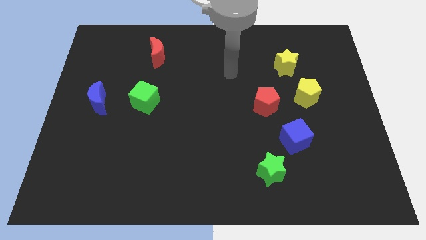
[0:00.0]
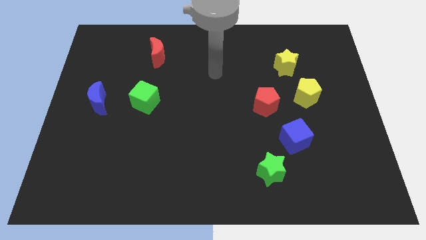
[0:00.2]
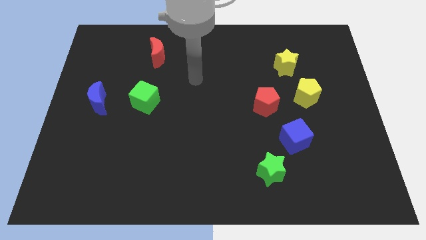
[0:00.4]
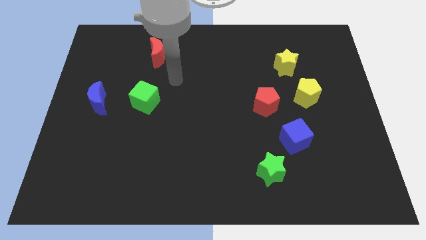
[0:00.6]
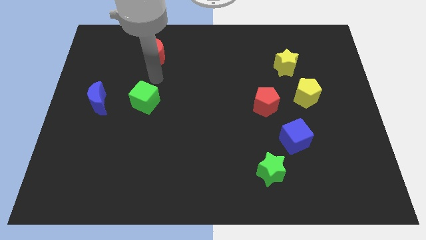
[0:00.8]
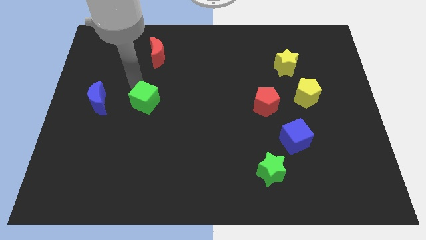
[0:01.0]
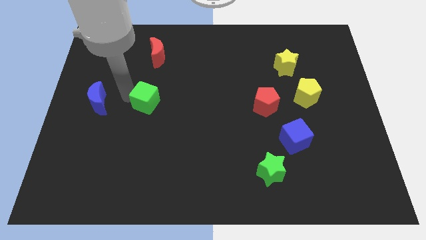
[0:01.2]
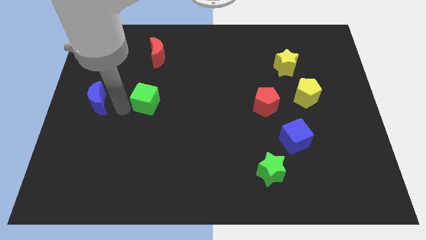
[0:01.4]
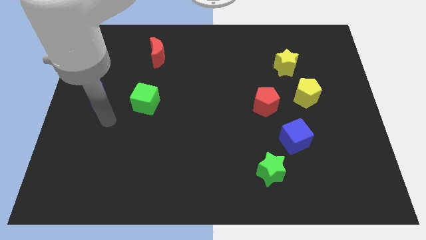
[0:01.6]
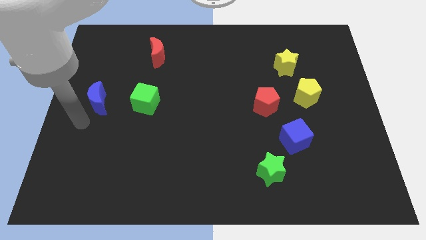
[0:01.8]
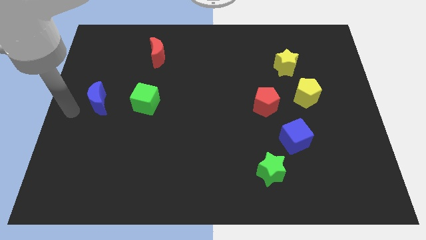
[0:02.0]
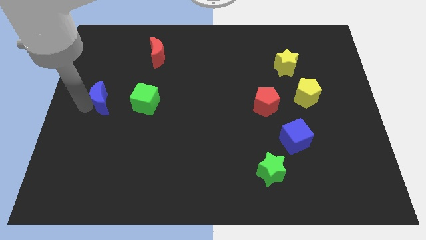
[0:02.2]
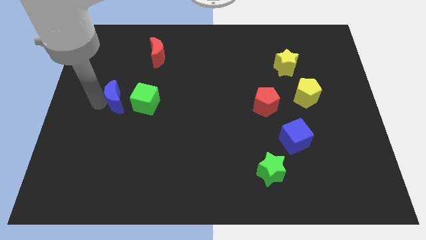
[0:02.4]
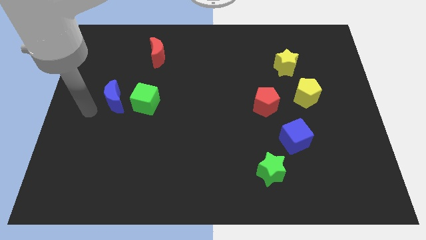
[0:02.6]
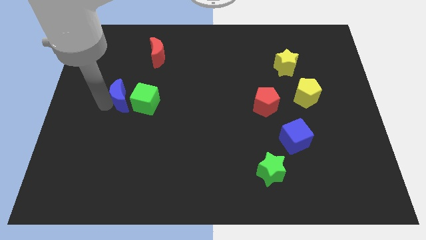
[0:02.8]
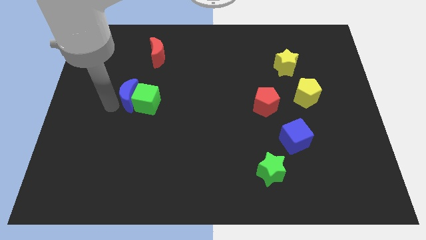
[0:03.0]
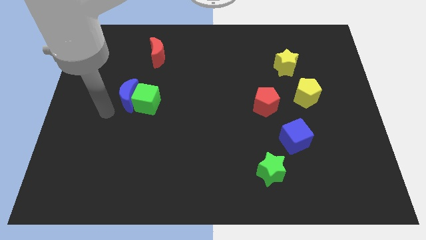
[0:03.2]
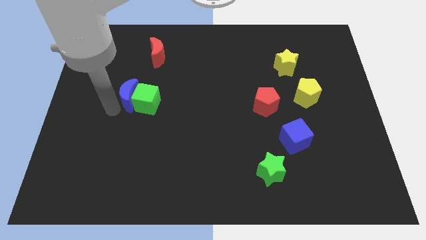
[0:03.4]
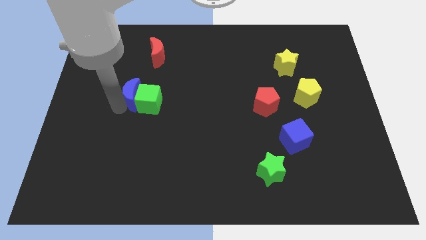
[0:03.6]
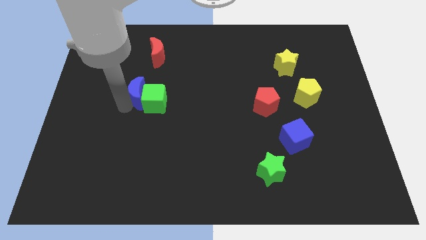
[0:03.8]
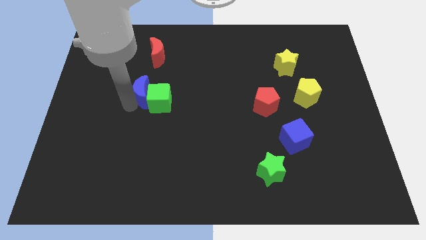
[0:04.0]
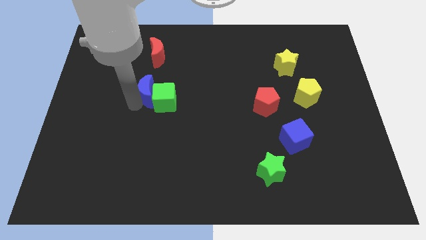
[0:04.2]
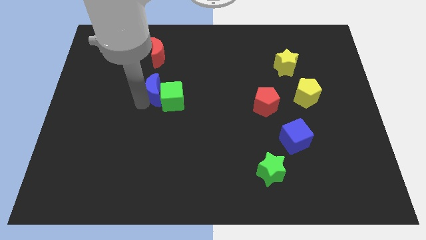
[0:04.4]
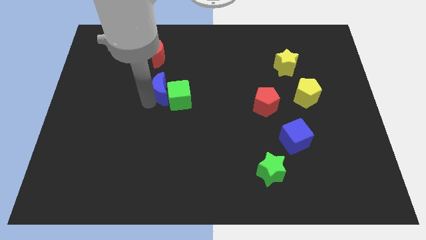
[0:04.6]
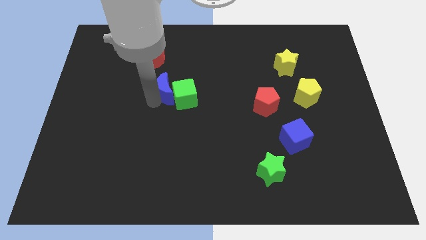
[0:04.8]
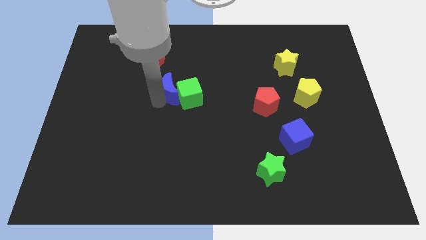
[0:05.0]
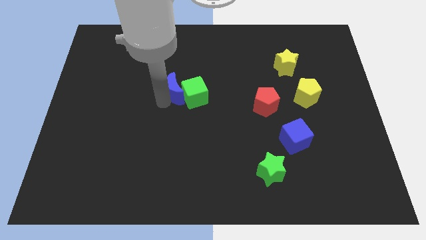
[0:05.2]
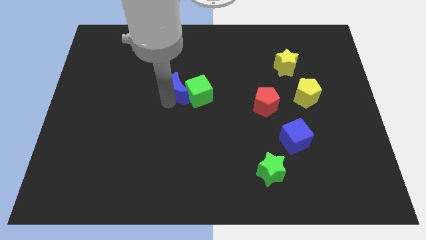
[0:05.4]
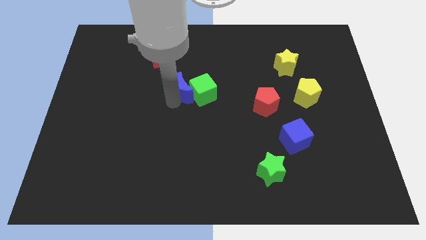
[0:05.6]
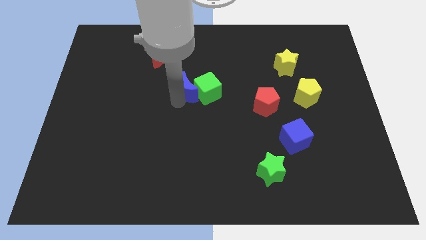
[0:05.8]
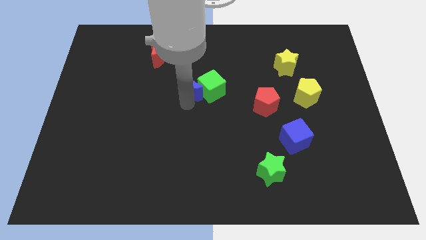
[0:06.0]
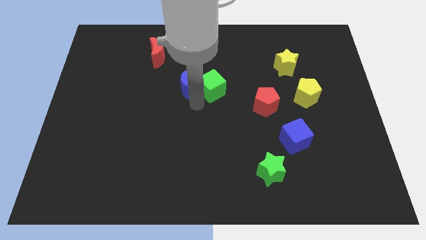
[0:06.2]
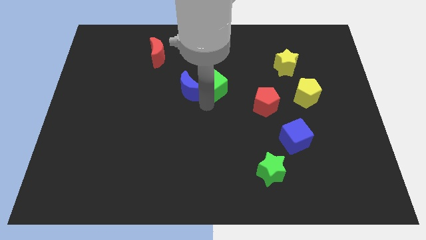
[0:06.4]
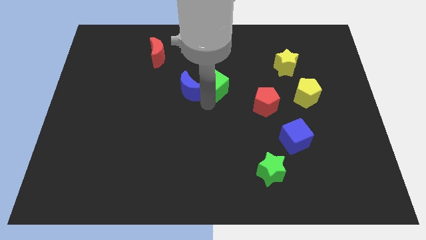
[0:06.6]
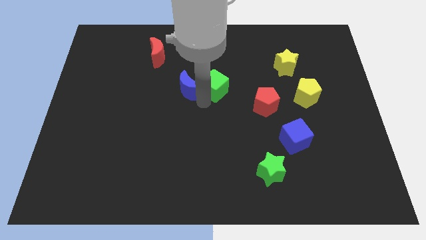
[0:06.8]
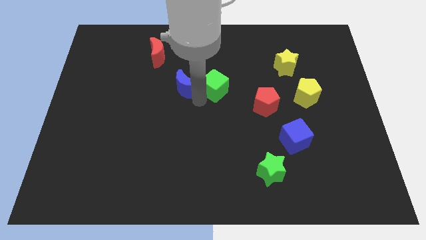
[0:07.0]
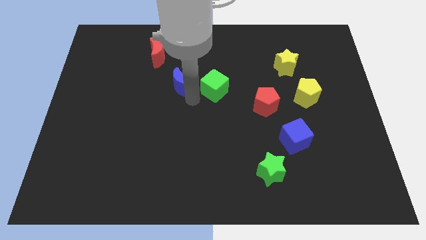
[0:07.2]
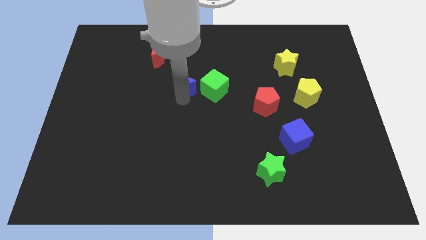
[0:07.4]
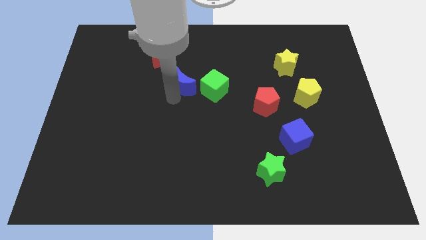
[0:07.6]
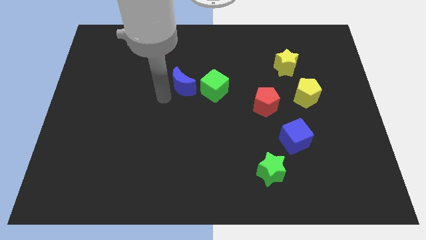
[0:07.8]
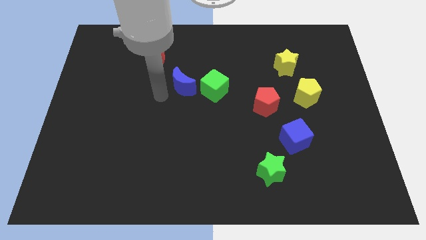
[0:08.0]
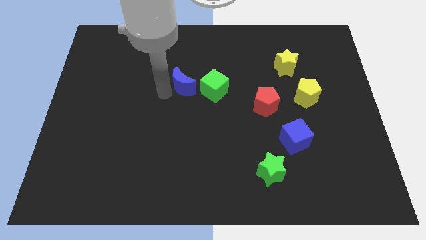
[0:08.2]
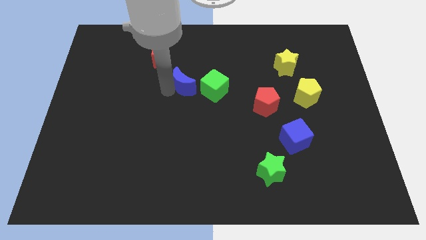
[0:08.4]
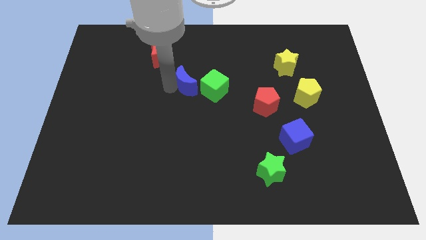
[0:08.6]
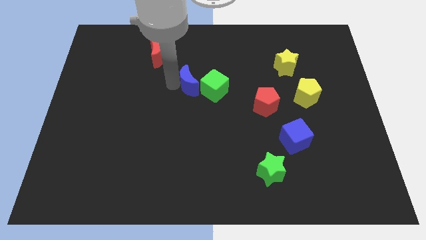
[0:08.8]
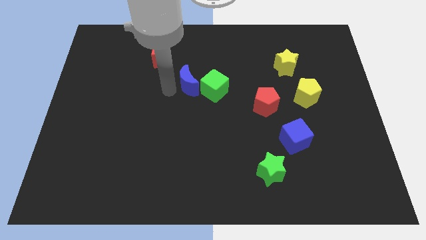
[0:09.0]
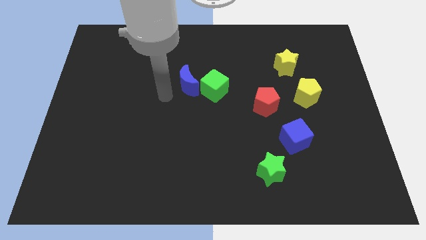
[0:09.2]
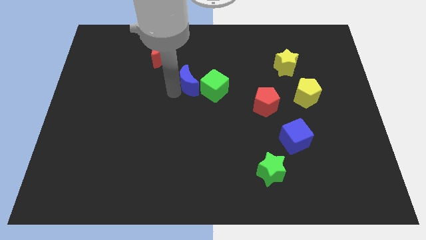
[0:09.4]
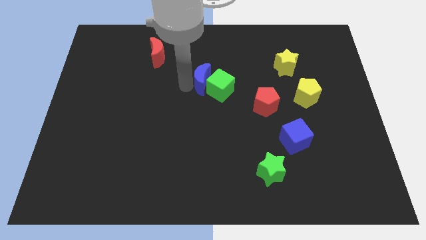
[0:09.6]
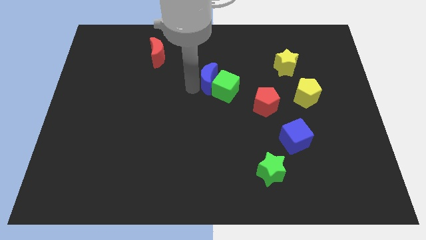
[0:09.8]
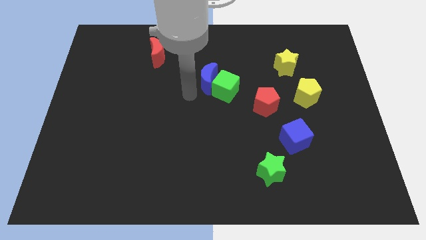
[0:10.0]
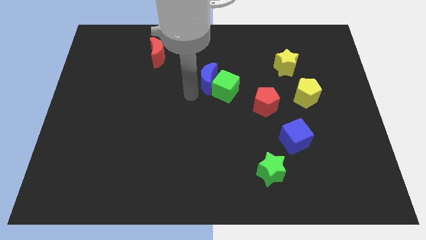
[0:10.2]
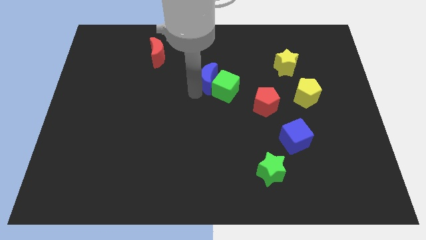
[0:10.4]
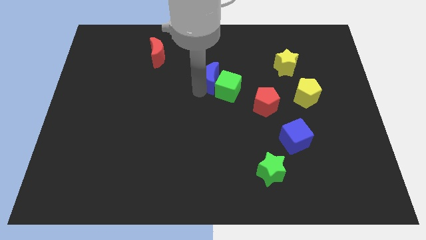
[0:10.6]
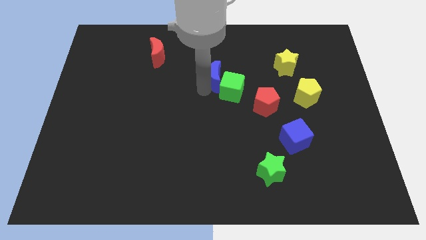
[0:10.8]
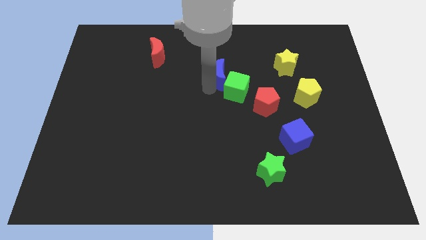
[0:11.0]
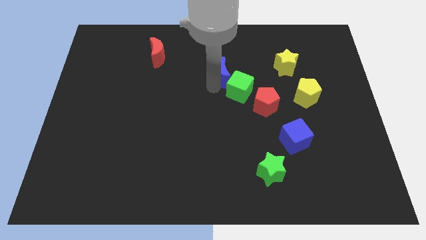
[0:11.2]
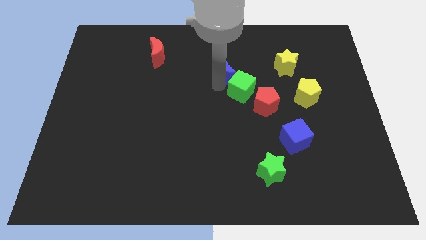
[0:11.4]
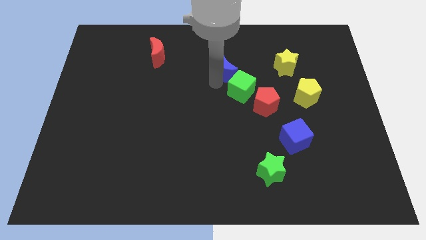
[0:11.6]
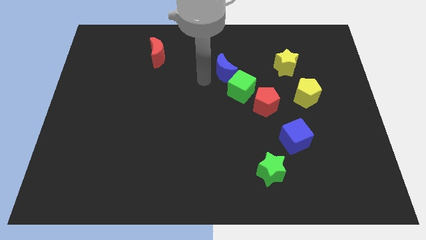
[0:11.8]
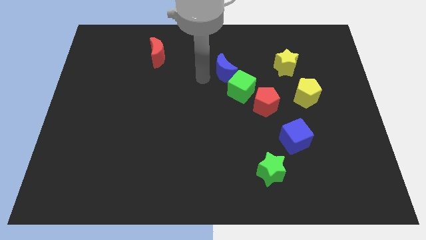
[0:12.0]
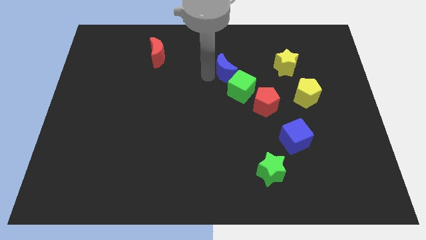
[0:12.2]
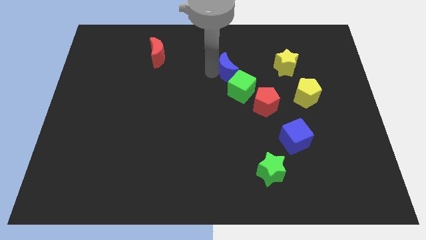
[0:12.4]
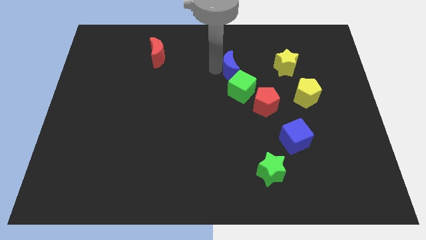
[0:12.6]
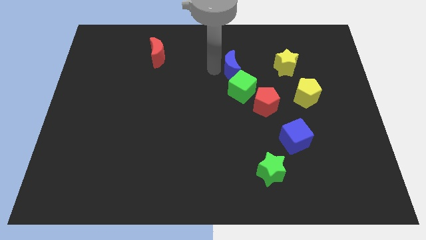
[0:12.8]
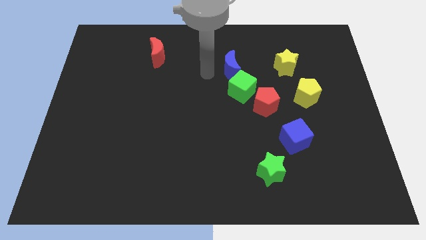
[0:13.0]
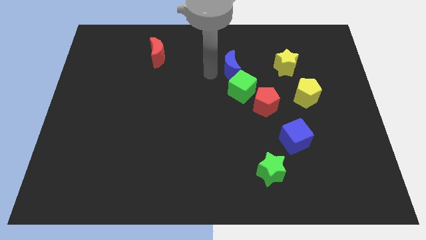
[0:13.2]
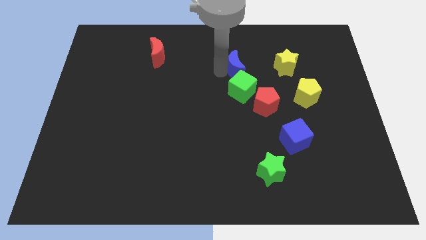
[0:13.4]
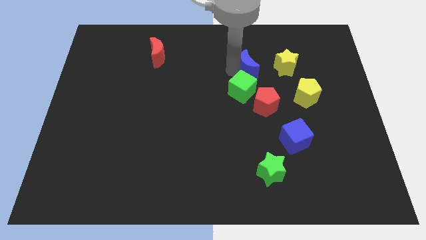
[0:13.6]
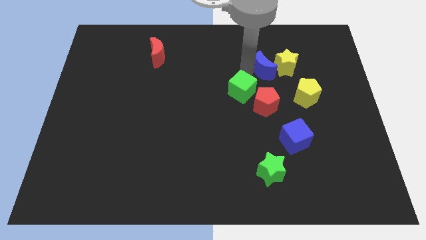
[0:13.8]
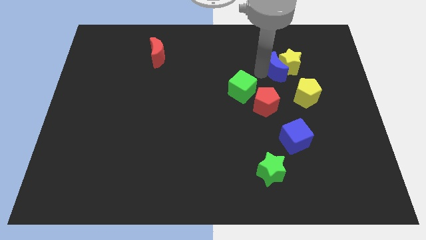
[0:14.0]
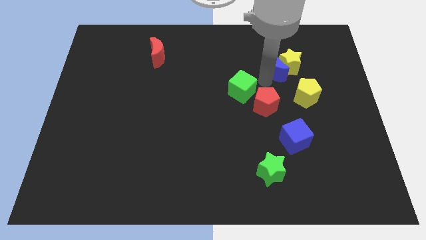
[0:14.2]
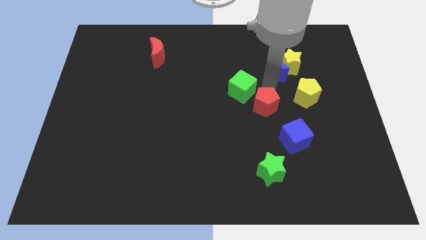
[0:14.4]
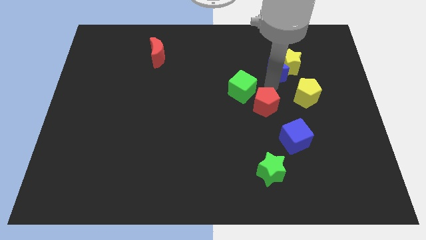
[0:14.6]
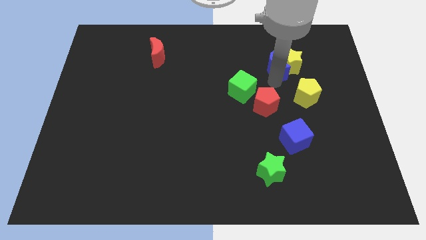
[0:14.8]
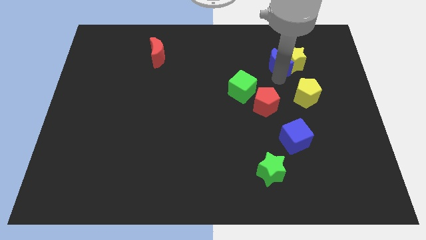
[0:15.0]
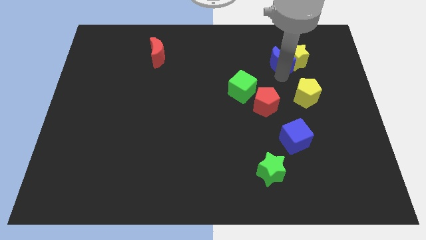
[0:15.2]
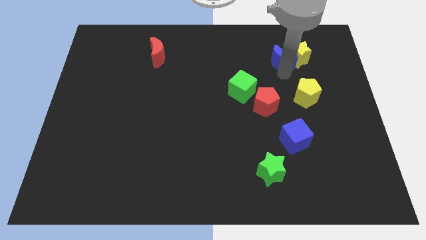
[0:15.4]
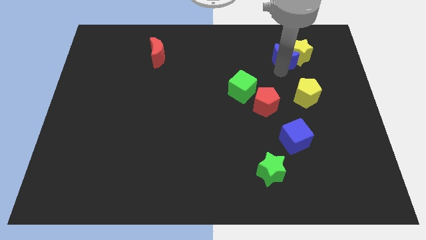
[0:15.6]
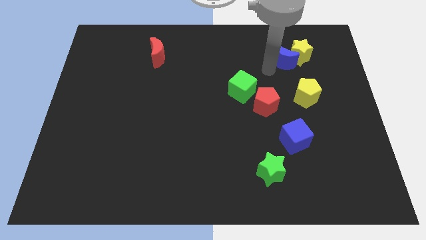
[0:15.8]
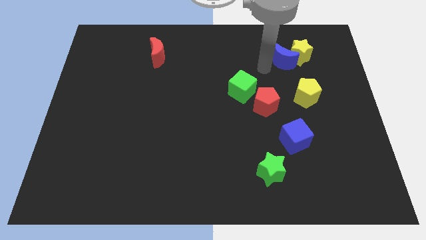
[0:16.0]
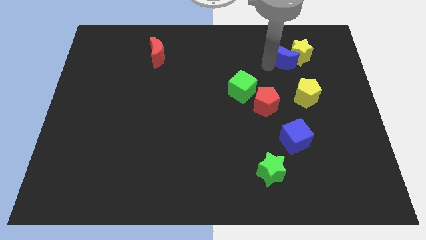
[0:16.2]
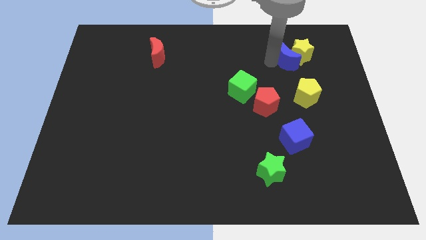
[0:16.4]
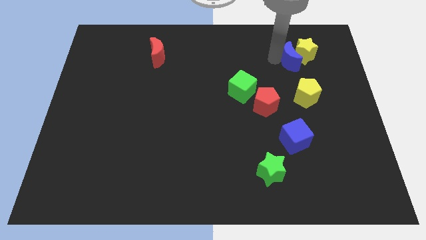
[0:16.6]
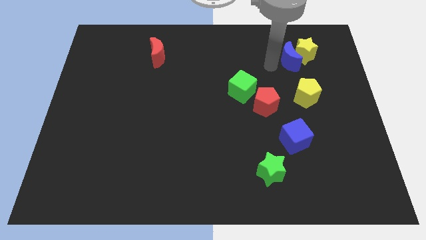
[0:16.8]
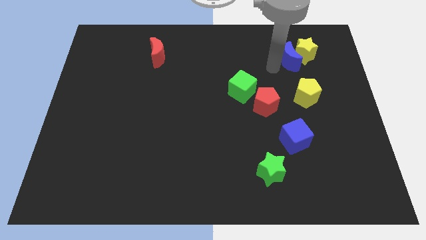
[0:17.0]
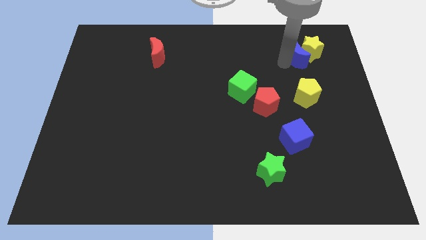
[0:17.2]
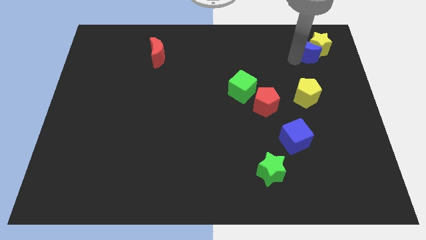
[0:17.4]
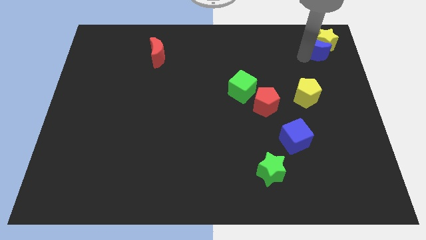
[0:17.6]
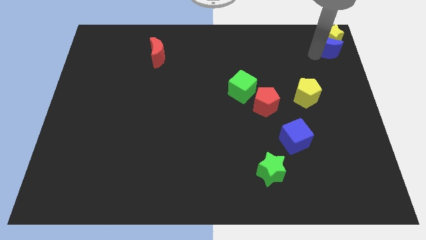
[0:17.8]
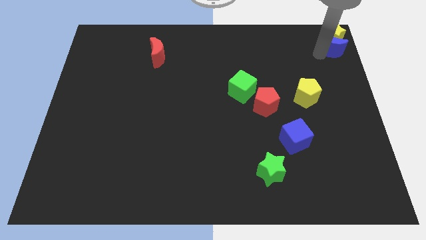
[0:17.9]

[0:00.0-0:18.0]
slide the blue moon to the top right
